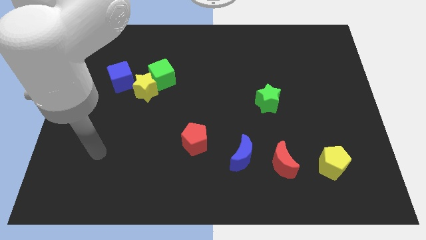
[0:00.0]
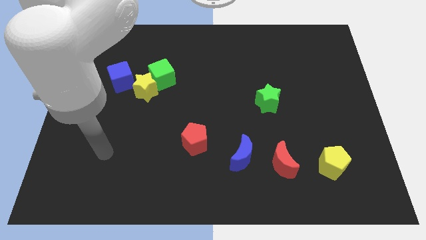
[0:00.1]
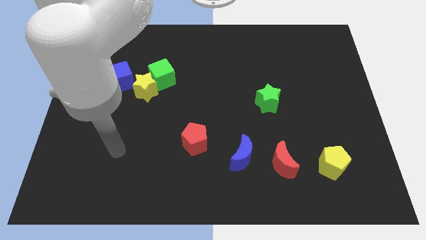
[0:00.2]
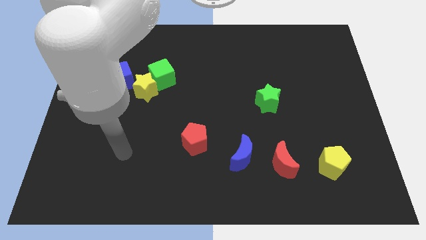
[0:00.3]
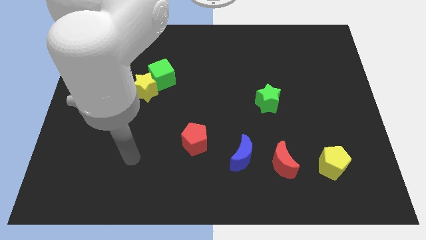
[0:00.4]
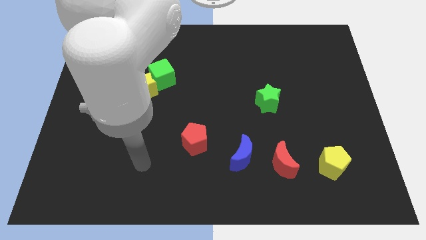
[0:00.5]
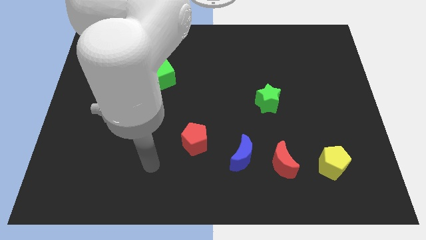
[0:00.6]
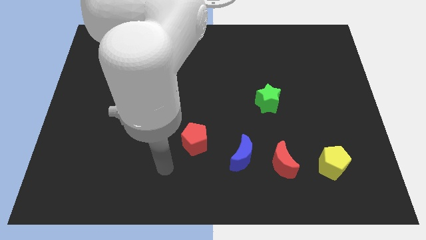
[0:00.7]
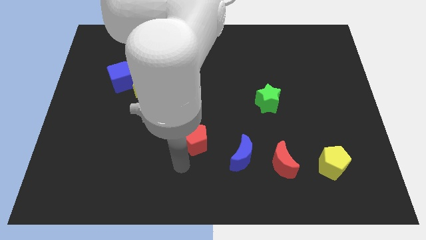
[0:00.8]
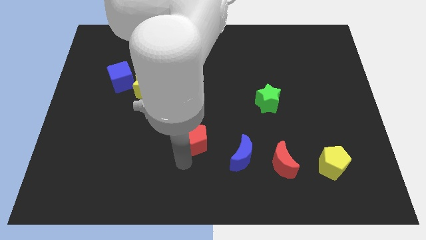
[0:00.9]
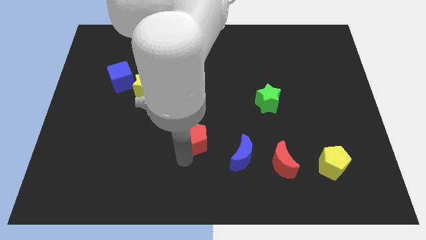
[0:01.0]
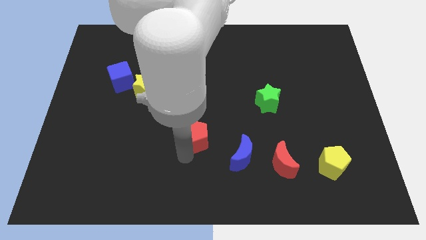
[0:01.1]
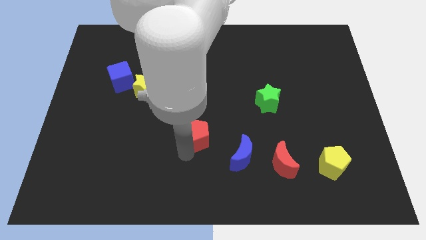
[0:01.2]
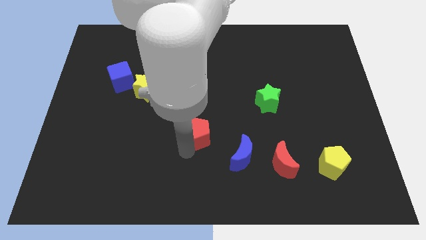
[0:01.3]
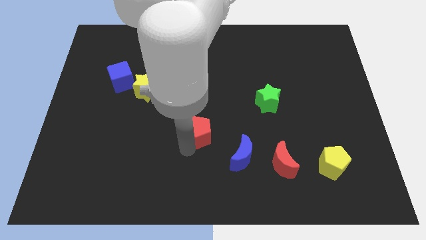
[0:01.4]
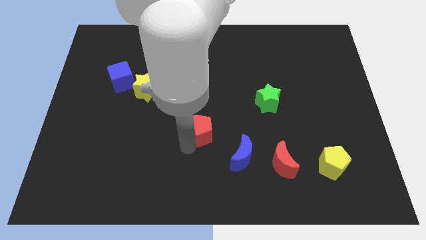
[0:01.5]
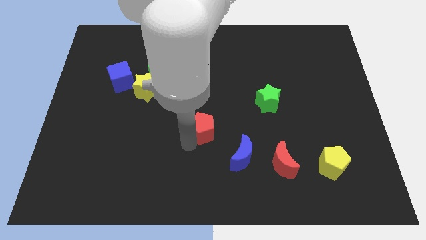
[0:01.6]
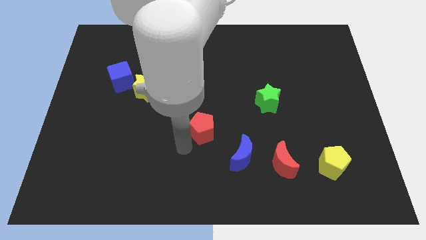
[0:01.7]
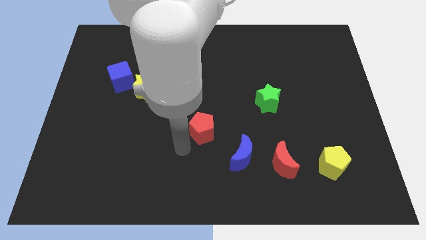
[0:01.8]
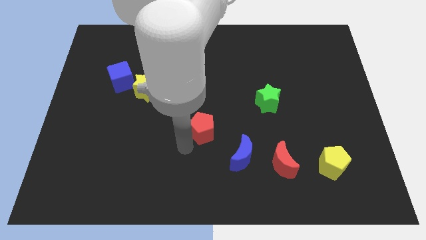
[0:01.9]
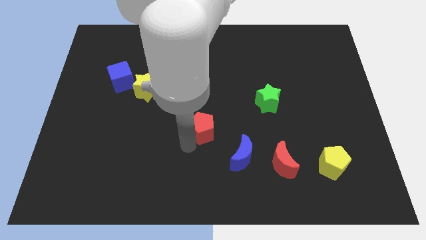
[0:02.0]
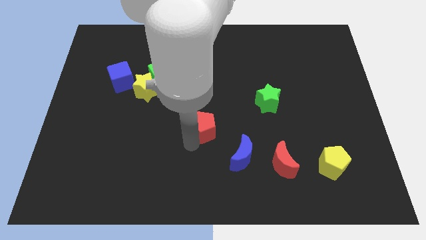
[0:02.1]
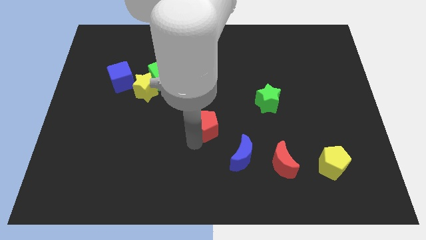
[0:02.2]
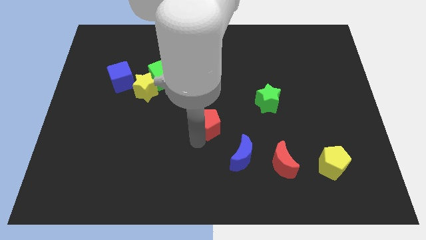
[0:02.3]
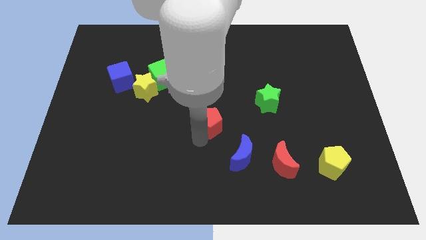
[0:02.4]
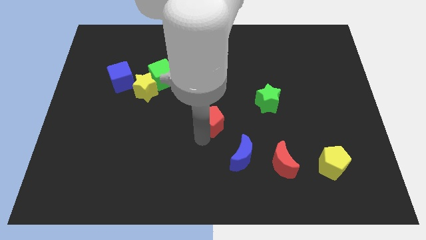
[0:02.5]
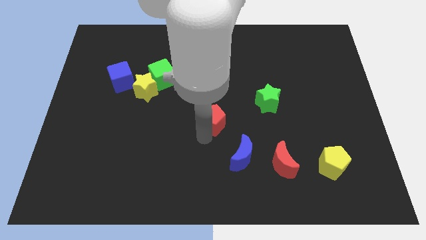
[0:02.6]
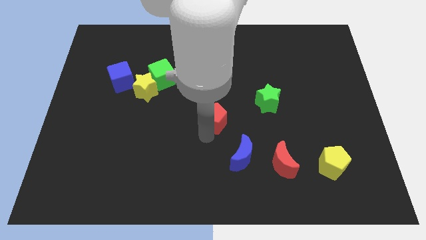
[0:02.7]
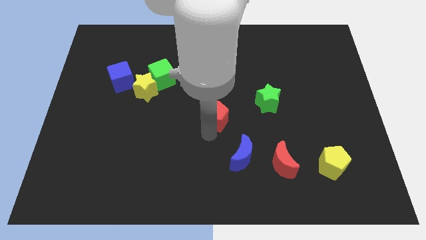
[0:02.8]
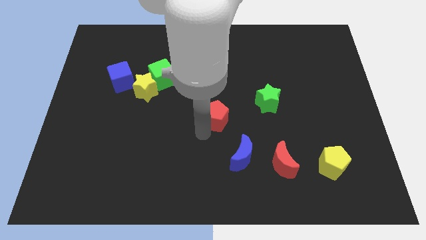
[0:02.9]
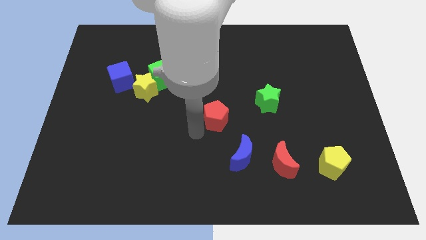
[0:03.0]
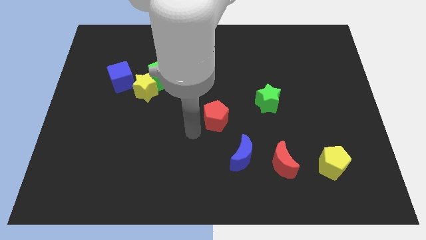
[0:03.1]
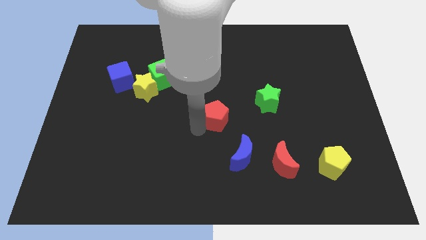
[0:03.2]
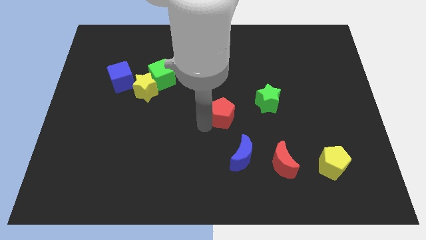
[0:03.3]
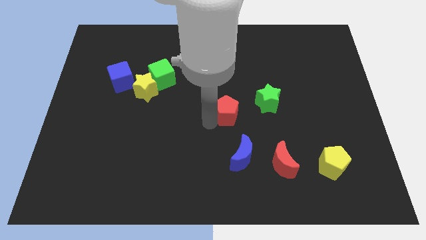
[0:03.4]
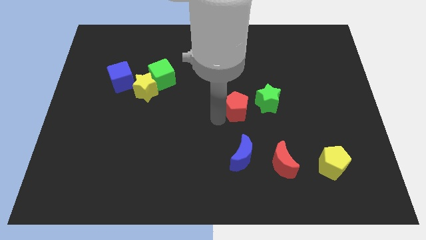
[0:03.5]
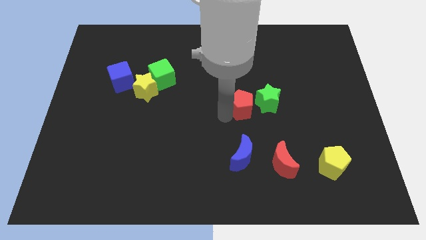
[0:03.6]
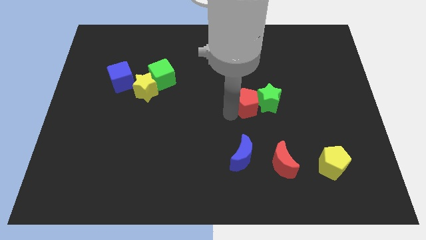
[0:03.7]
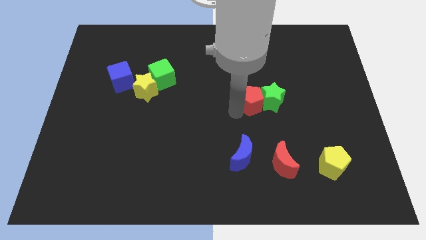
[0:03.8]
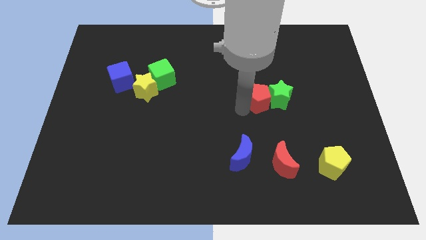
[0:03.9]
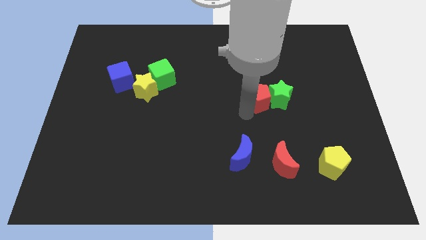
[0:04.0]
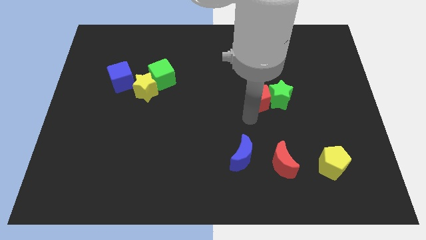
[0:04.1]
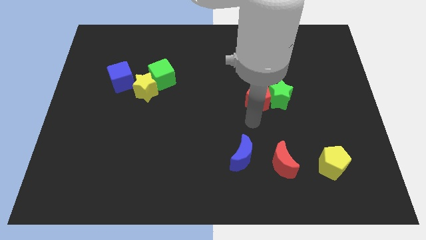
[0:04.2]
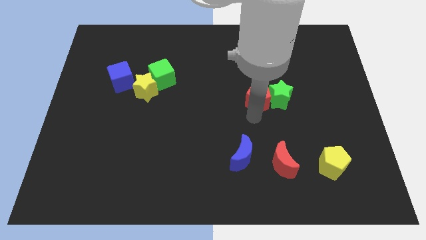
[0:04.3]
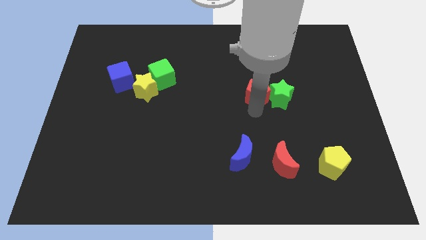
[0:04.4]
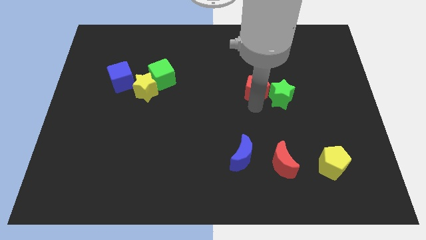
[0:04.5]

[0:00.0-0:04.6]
slide the red pentagon upwards and right

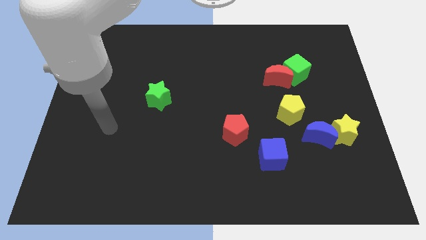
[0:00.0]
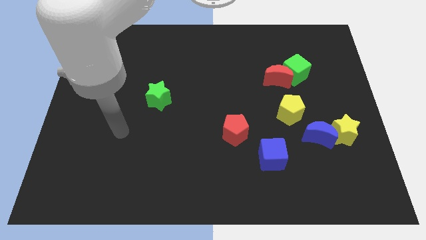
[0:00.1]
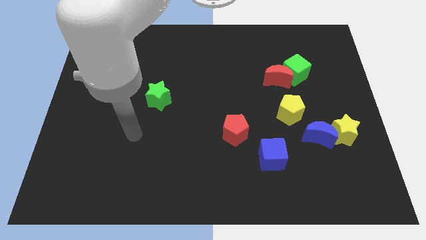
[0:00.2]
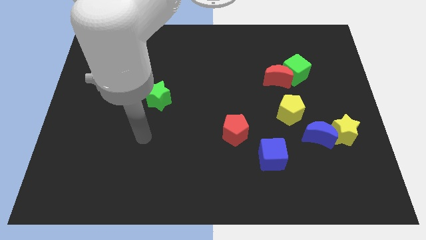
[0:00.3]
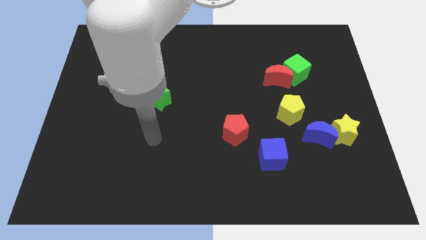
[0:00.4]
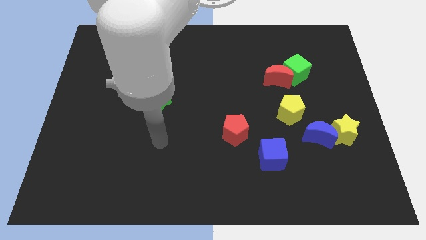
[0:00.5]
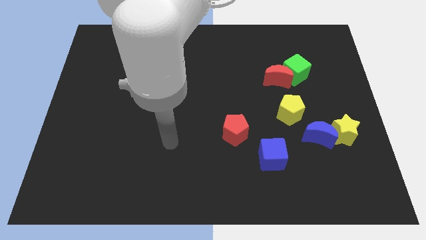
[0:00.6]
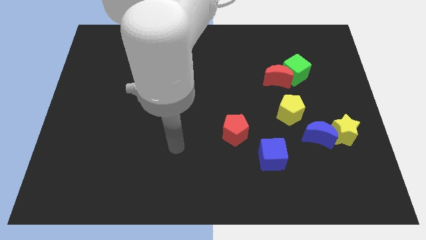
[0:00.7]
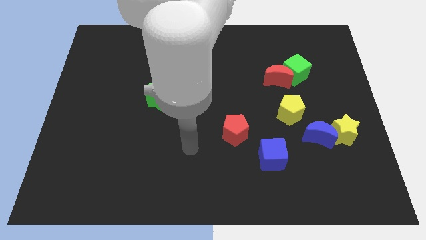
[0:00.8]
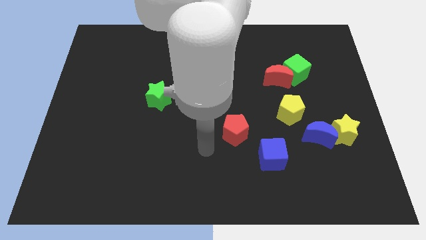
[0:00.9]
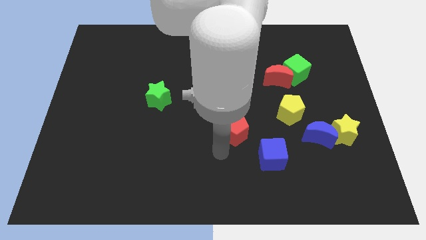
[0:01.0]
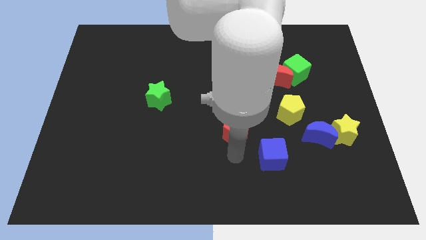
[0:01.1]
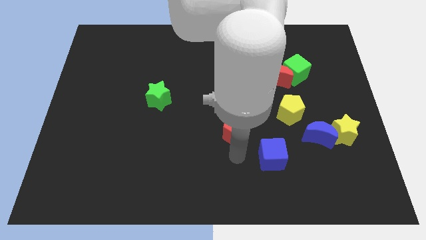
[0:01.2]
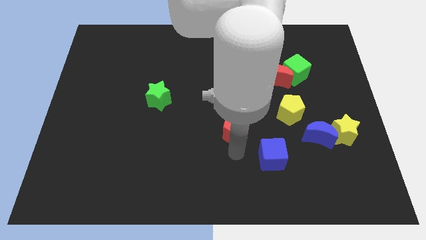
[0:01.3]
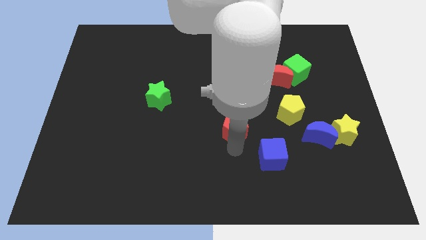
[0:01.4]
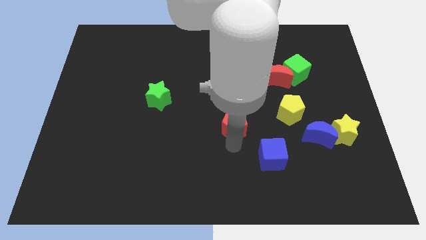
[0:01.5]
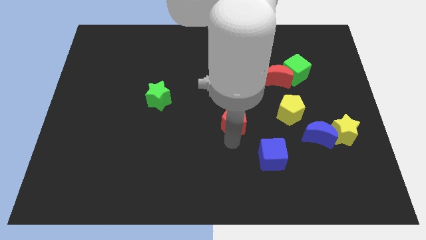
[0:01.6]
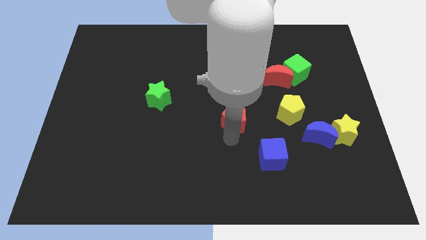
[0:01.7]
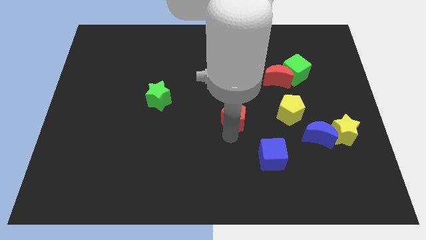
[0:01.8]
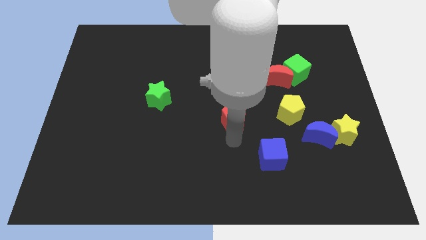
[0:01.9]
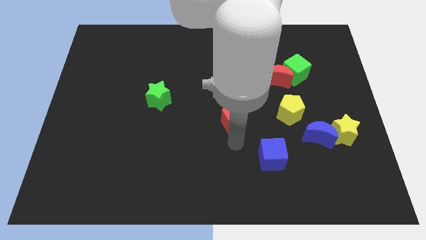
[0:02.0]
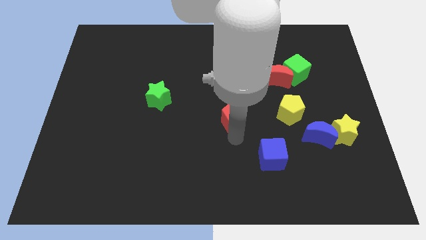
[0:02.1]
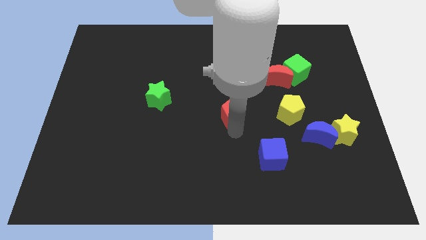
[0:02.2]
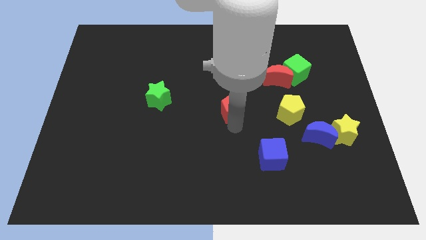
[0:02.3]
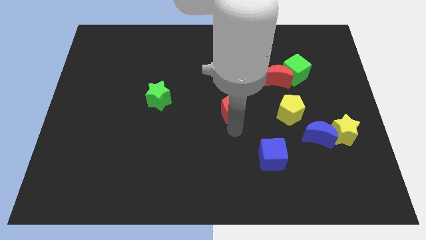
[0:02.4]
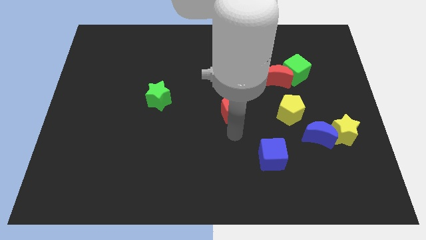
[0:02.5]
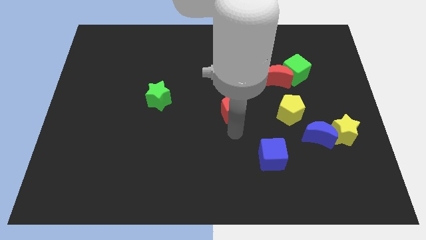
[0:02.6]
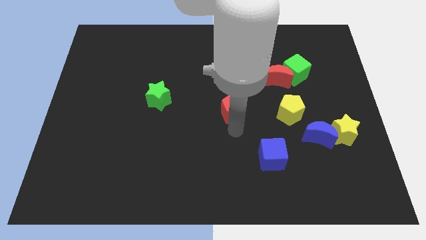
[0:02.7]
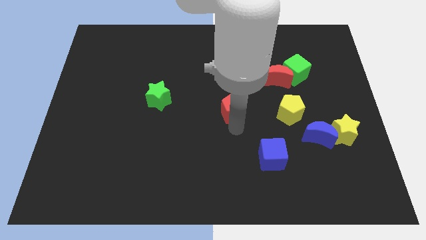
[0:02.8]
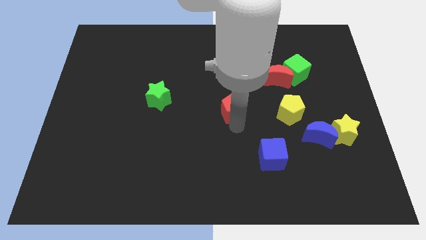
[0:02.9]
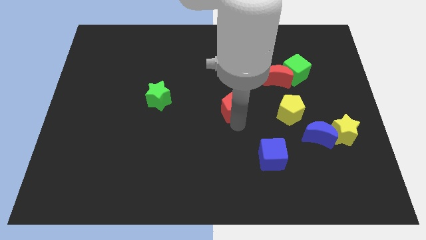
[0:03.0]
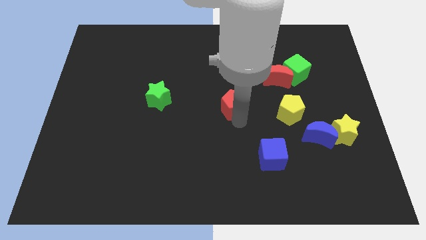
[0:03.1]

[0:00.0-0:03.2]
slightly move the red pentagon upwards

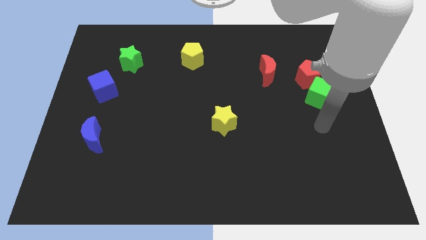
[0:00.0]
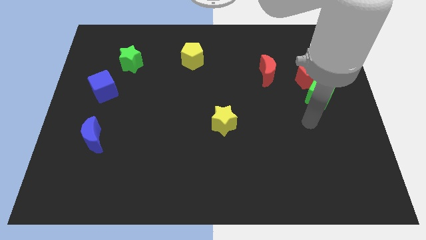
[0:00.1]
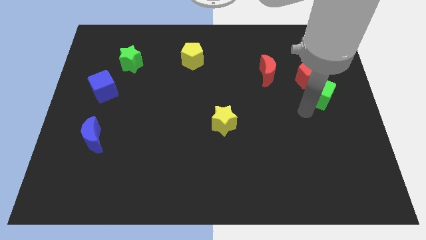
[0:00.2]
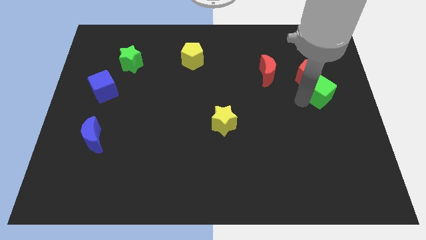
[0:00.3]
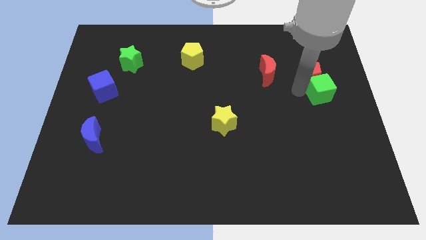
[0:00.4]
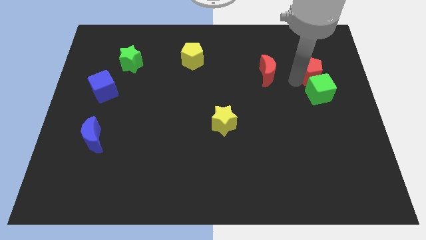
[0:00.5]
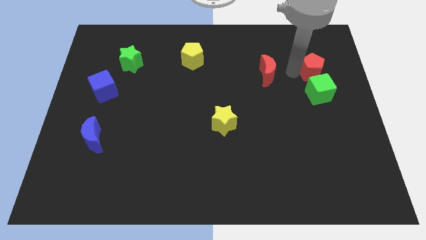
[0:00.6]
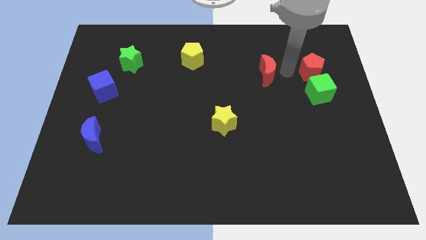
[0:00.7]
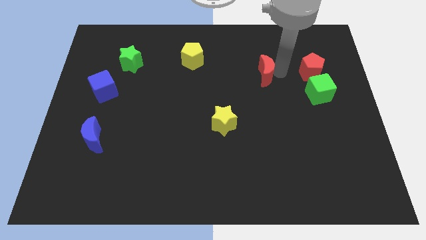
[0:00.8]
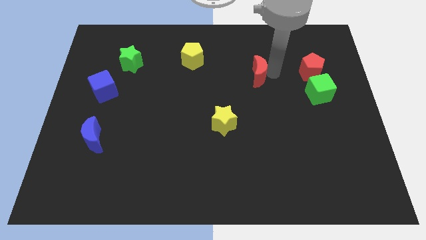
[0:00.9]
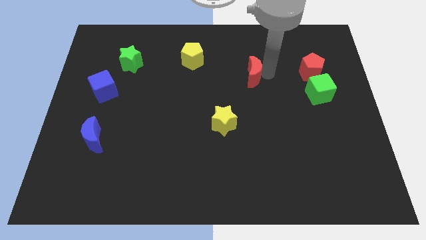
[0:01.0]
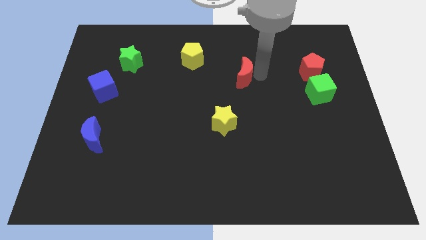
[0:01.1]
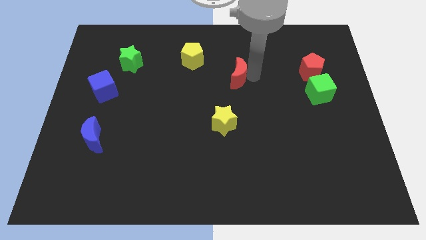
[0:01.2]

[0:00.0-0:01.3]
push the red moon left a bit
